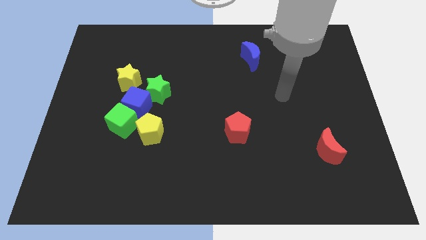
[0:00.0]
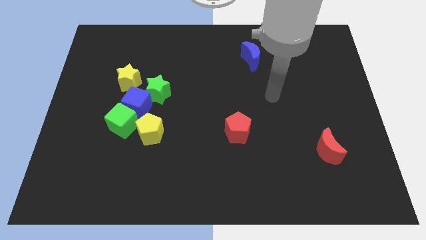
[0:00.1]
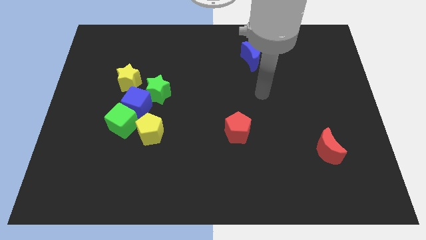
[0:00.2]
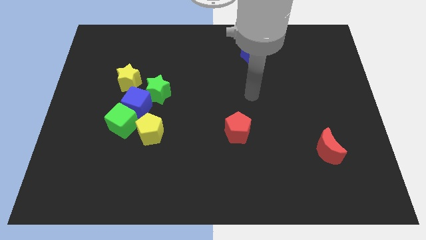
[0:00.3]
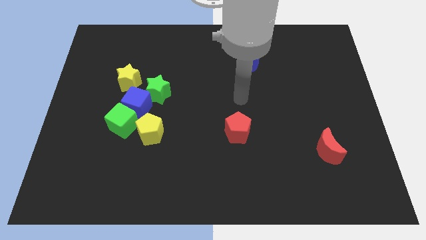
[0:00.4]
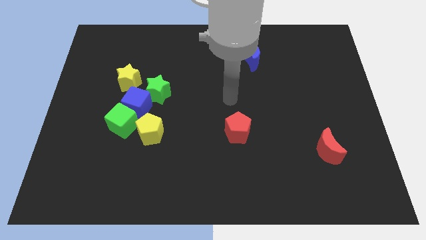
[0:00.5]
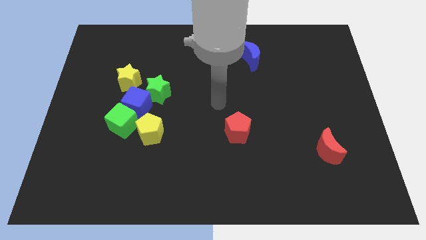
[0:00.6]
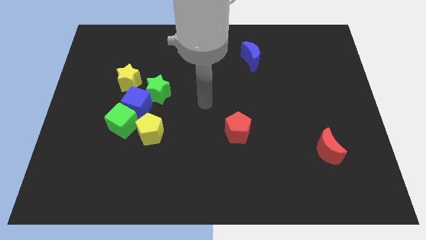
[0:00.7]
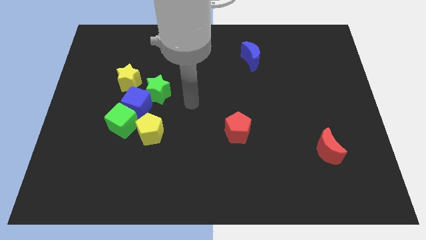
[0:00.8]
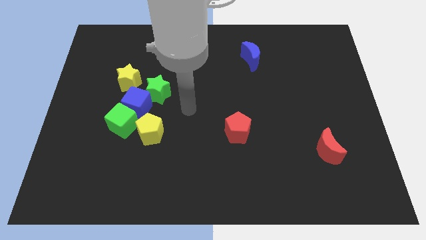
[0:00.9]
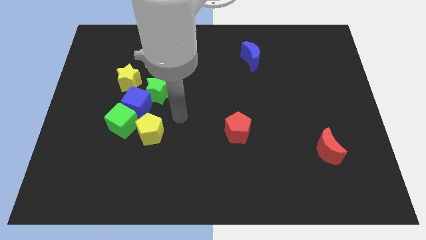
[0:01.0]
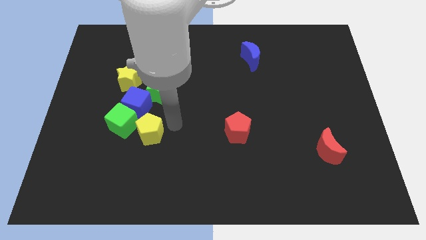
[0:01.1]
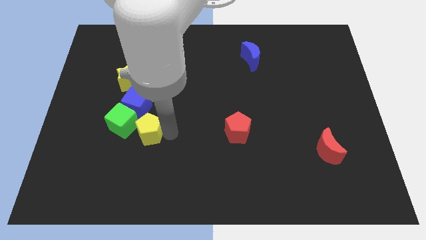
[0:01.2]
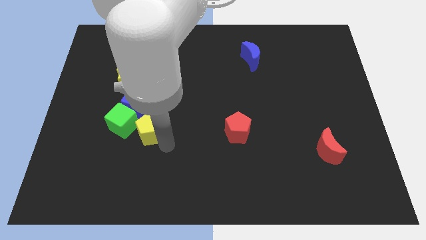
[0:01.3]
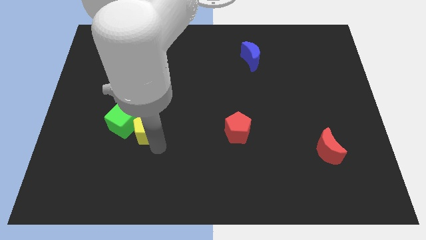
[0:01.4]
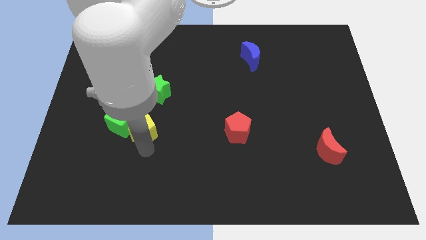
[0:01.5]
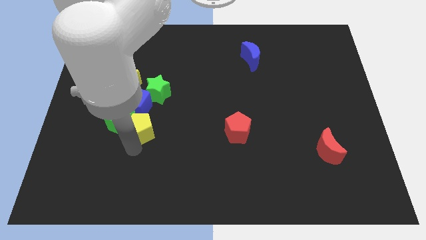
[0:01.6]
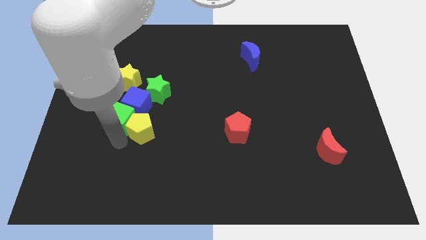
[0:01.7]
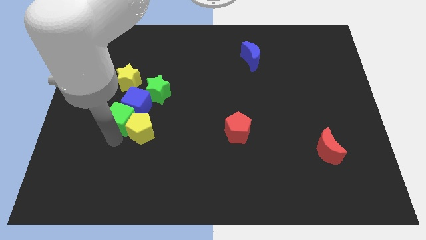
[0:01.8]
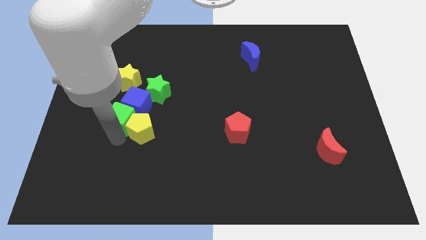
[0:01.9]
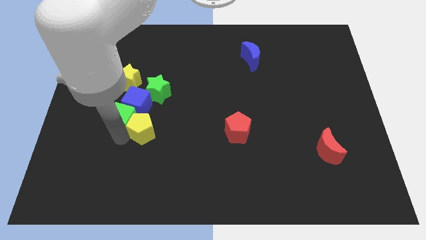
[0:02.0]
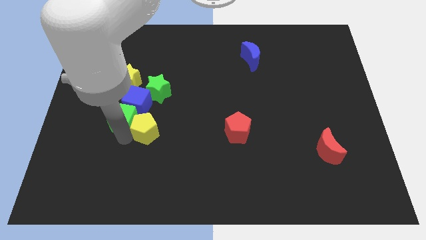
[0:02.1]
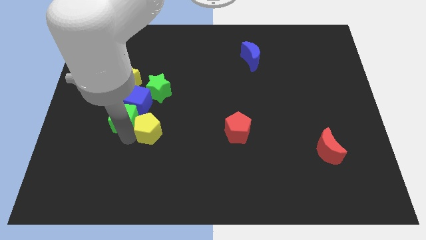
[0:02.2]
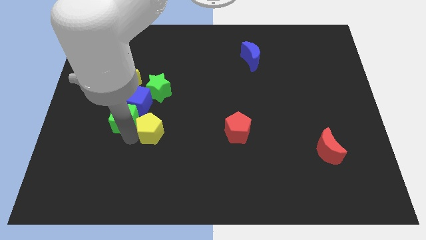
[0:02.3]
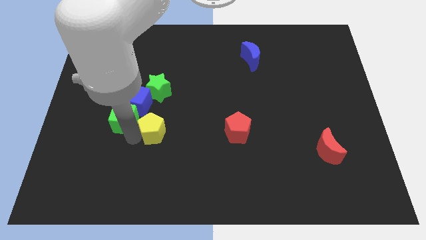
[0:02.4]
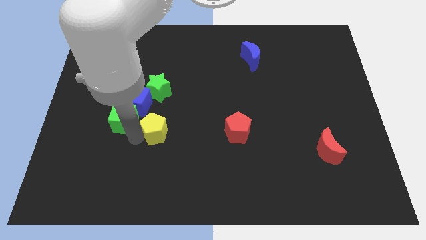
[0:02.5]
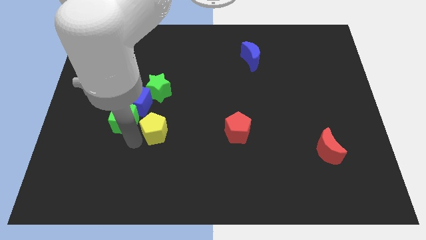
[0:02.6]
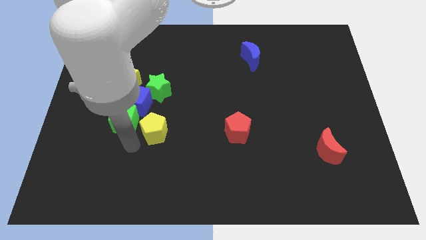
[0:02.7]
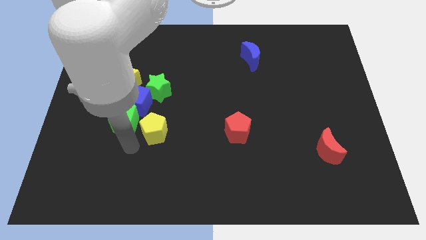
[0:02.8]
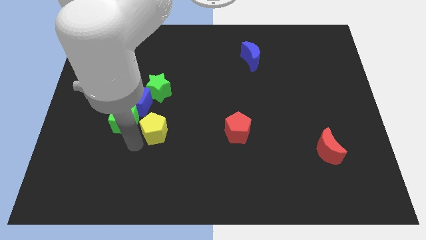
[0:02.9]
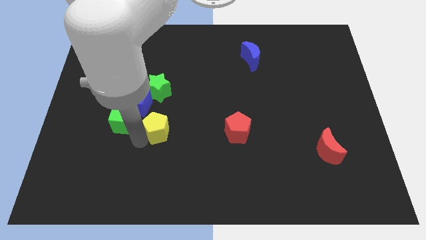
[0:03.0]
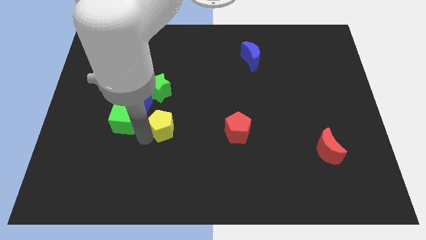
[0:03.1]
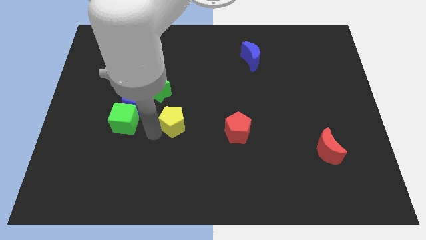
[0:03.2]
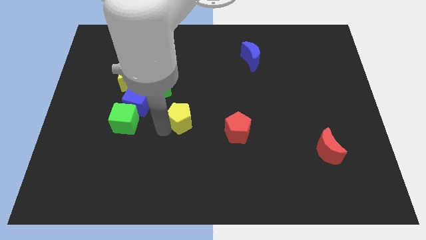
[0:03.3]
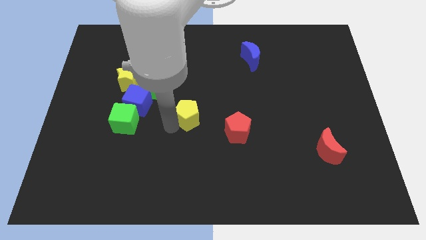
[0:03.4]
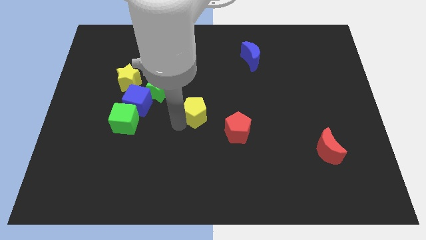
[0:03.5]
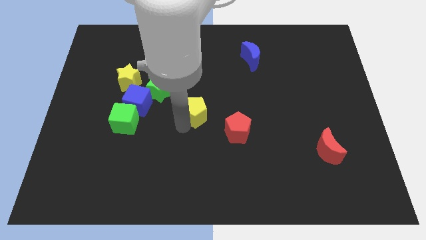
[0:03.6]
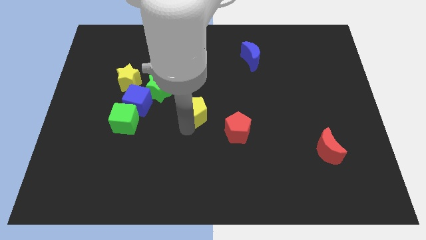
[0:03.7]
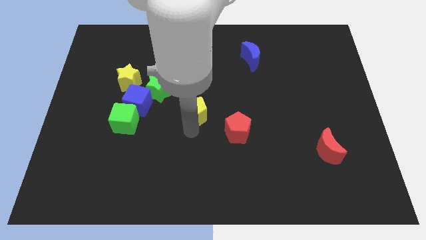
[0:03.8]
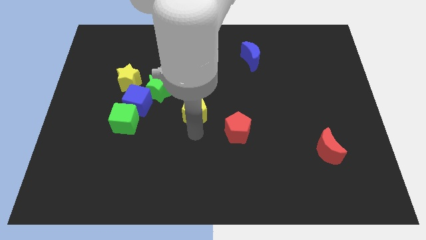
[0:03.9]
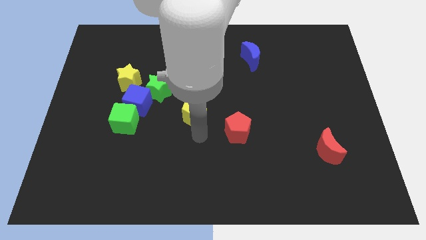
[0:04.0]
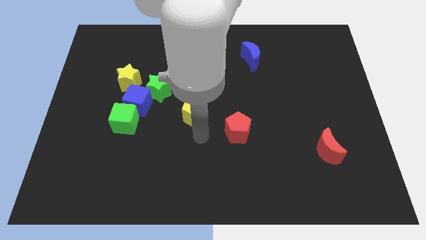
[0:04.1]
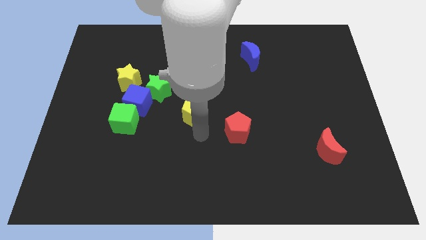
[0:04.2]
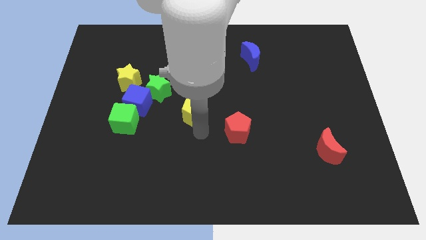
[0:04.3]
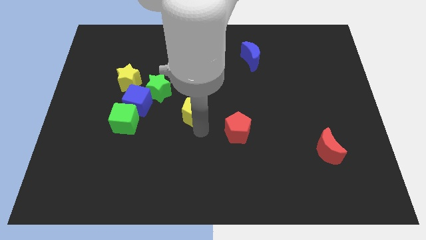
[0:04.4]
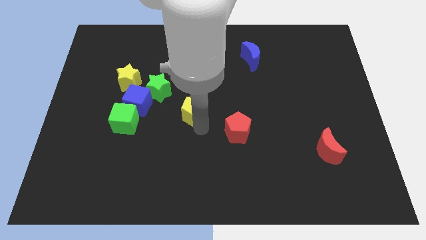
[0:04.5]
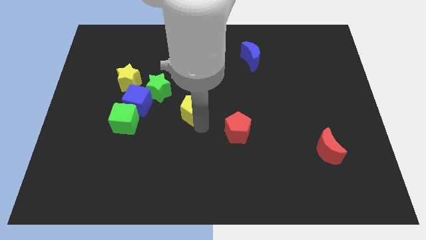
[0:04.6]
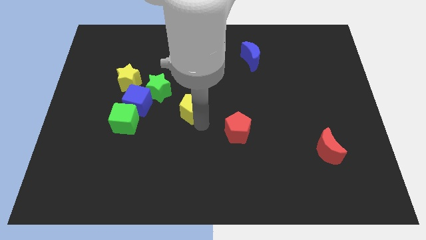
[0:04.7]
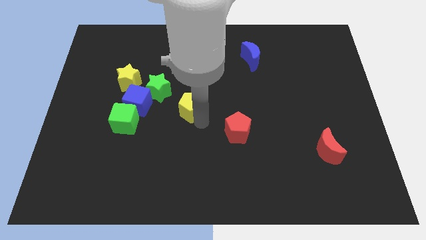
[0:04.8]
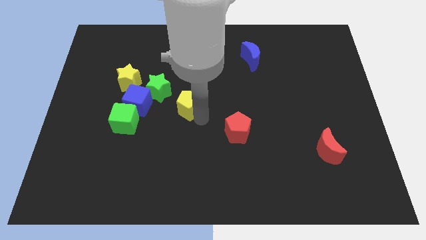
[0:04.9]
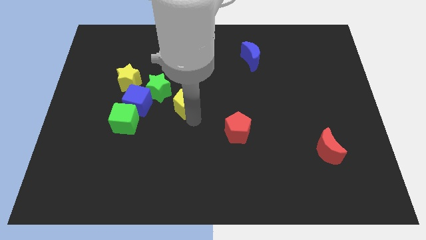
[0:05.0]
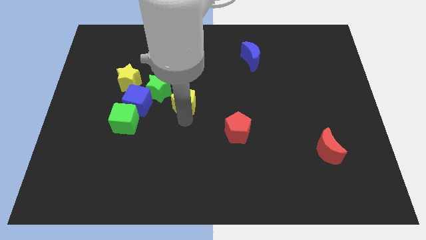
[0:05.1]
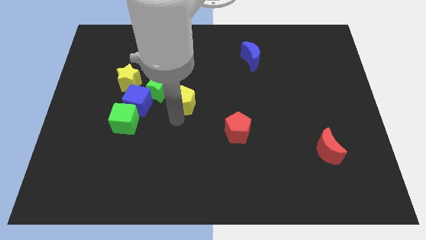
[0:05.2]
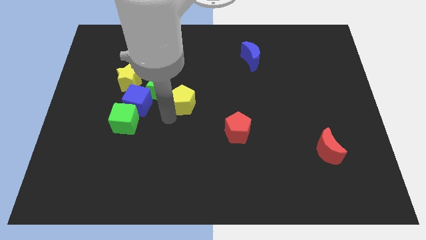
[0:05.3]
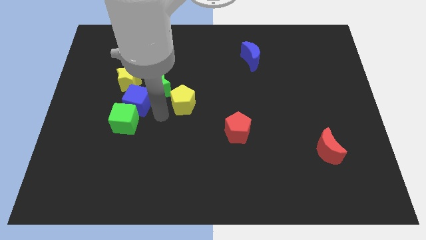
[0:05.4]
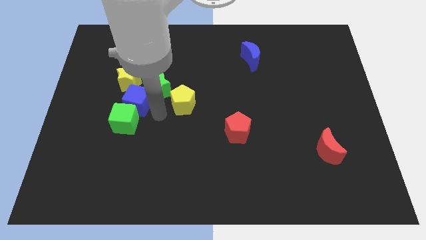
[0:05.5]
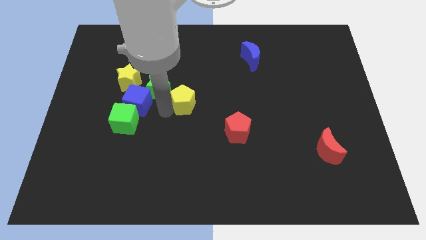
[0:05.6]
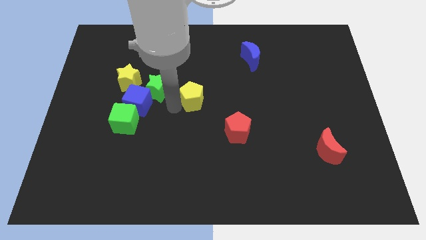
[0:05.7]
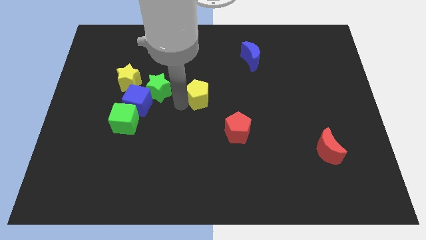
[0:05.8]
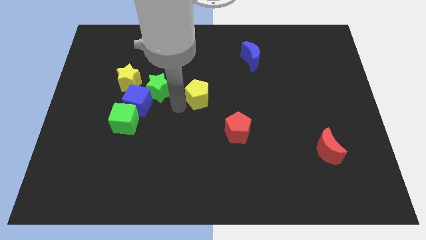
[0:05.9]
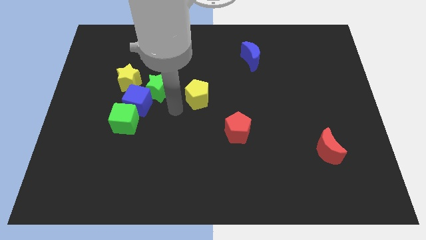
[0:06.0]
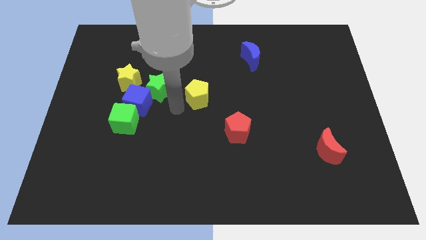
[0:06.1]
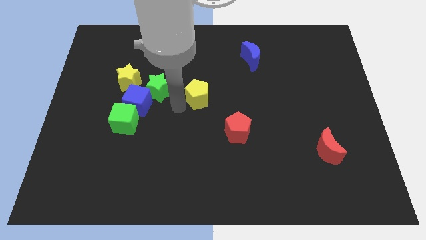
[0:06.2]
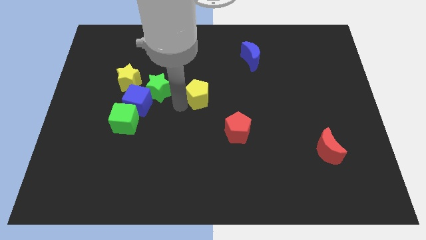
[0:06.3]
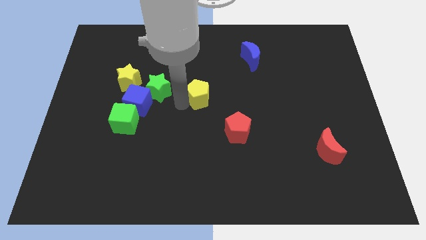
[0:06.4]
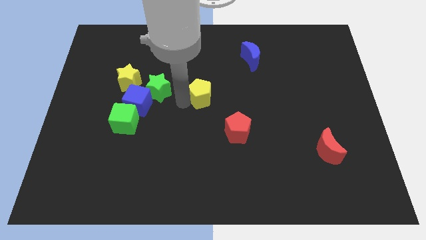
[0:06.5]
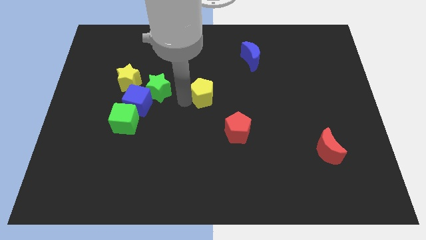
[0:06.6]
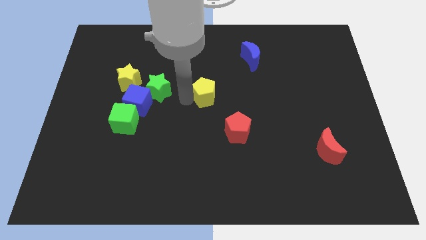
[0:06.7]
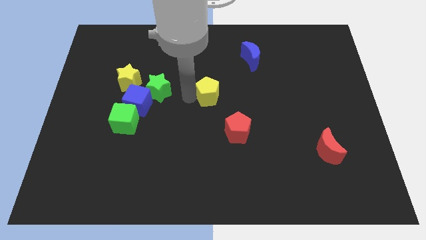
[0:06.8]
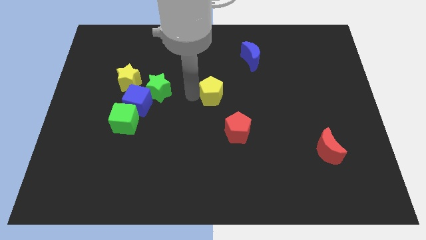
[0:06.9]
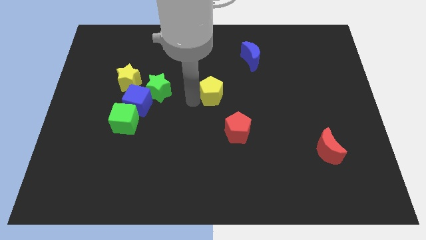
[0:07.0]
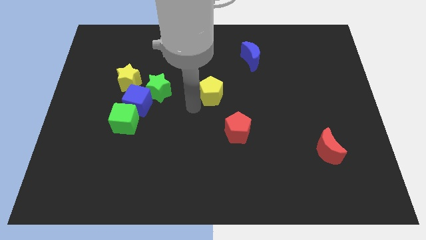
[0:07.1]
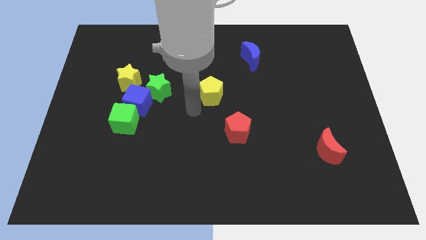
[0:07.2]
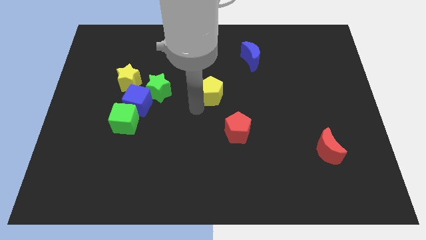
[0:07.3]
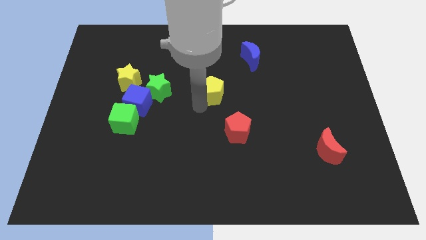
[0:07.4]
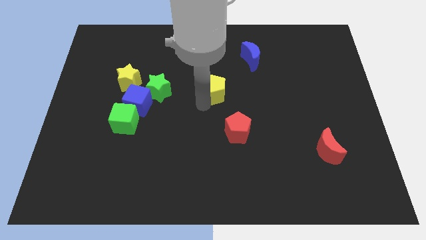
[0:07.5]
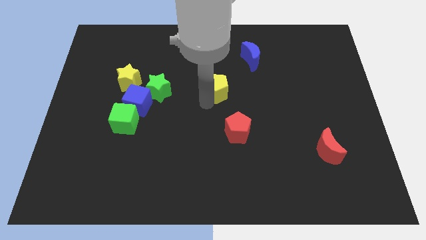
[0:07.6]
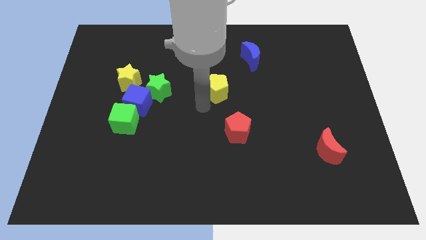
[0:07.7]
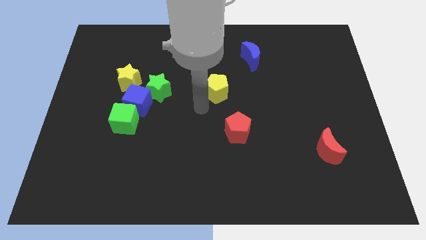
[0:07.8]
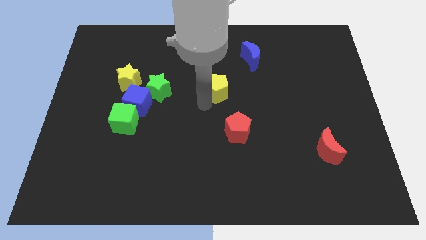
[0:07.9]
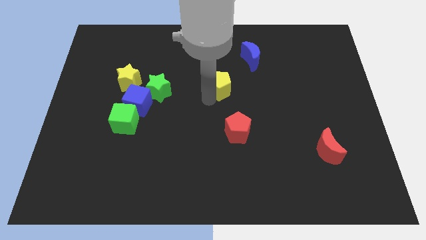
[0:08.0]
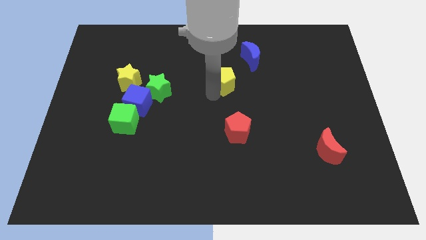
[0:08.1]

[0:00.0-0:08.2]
push the yellow pentagon to the bottom left side of the blue moon
